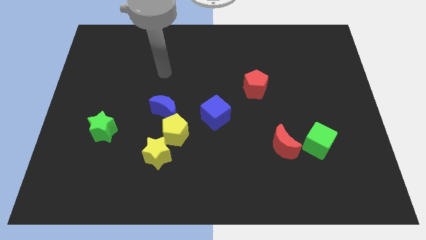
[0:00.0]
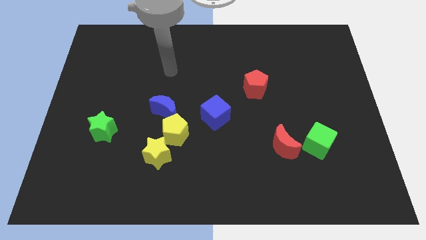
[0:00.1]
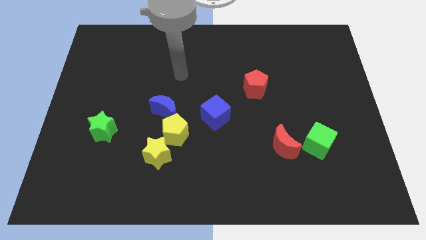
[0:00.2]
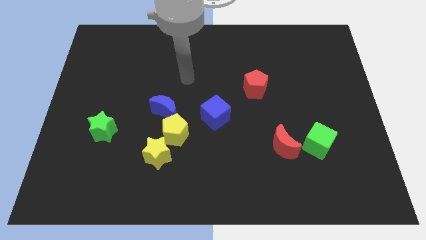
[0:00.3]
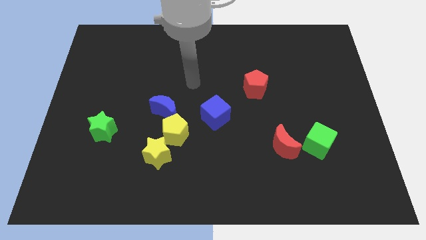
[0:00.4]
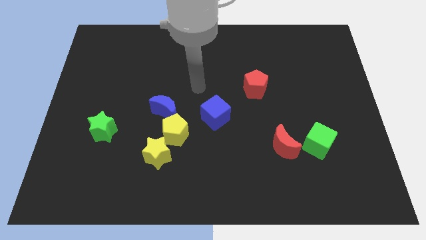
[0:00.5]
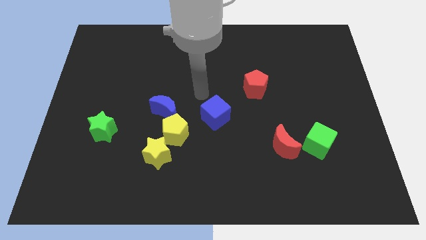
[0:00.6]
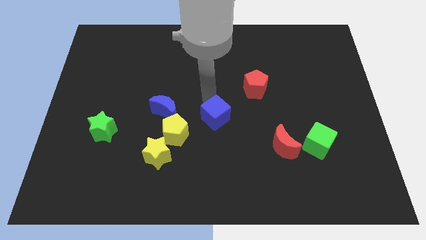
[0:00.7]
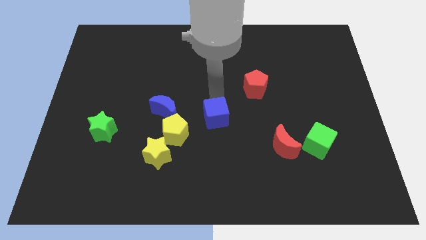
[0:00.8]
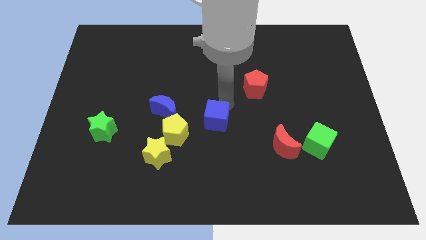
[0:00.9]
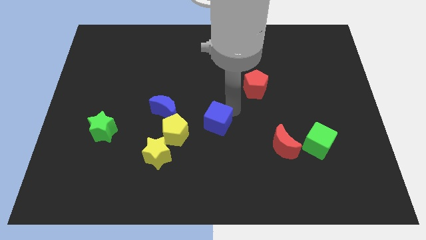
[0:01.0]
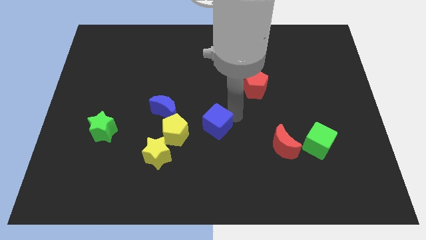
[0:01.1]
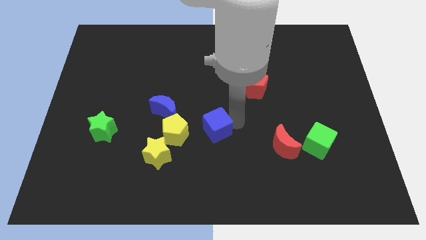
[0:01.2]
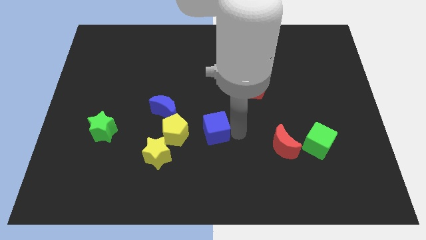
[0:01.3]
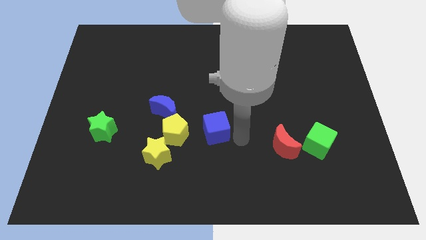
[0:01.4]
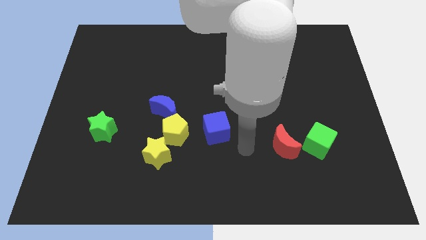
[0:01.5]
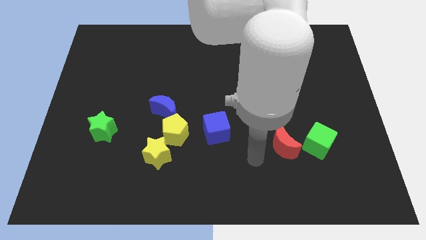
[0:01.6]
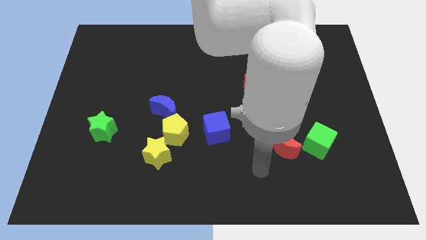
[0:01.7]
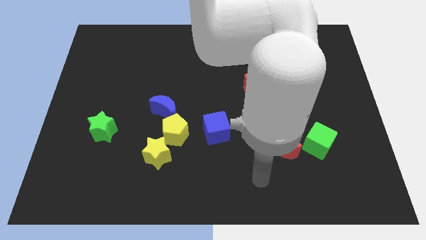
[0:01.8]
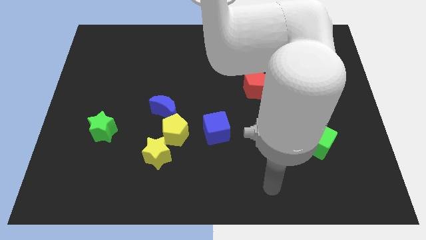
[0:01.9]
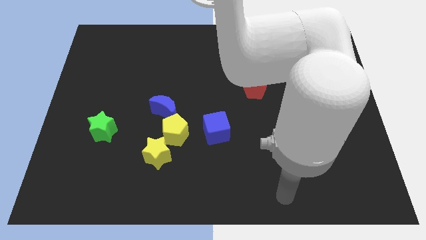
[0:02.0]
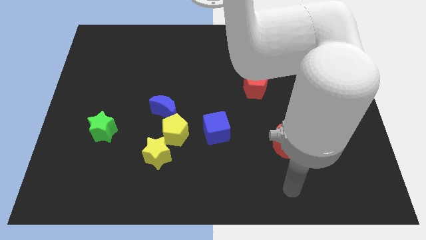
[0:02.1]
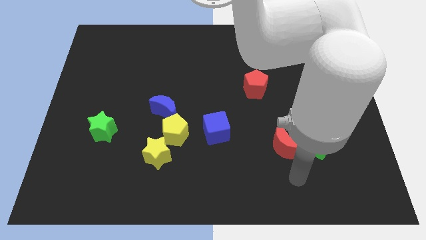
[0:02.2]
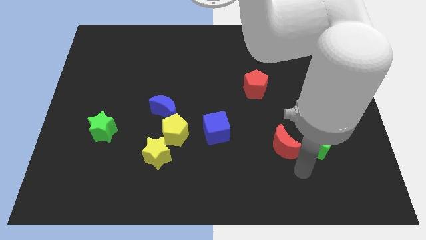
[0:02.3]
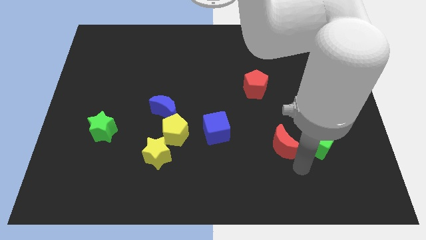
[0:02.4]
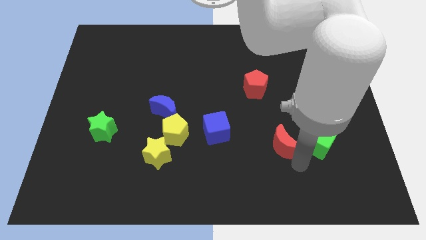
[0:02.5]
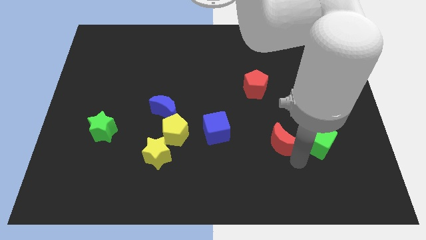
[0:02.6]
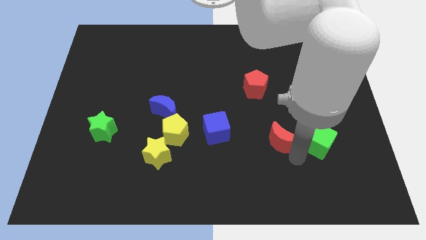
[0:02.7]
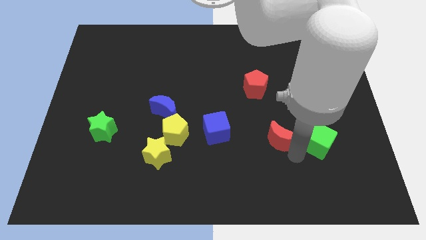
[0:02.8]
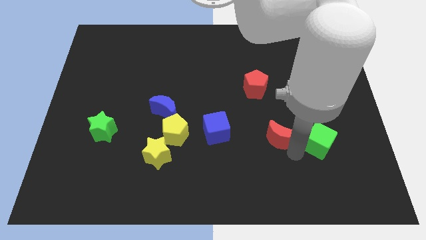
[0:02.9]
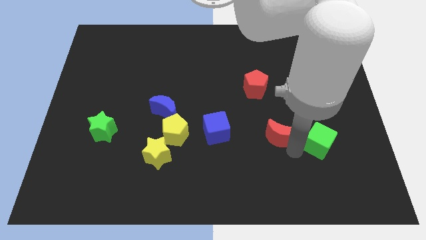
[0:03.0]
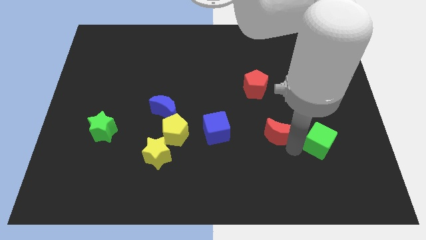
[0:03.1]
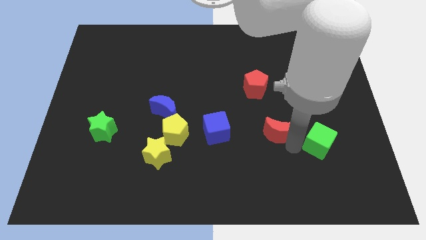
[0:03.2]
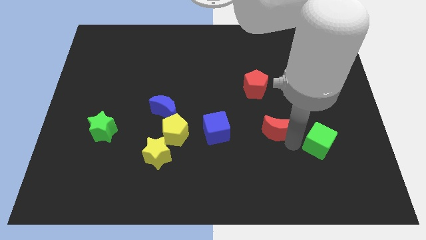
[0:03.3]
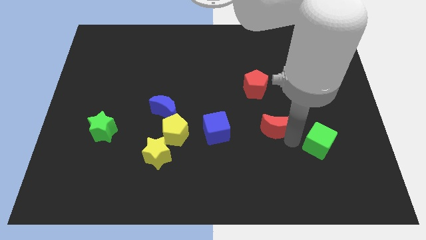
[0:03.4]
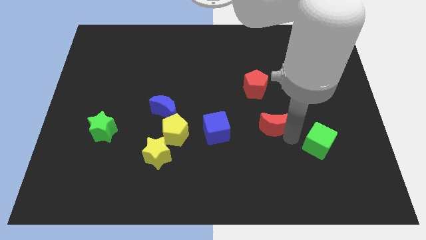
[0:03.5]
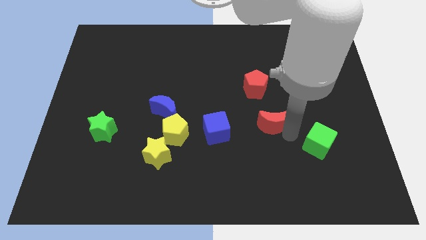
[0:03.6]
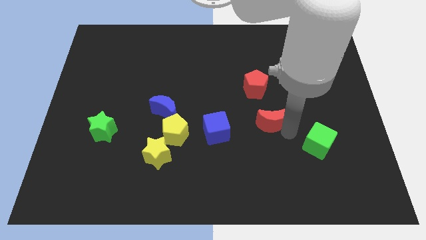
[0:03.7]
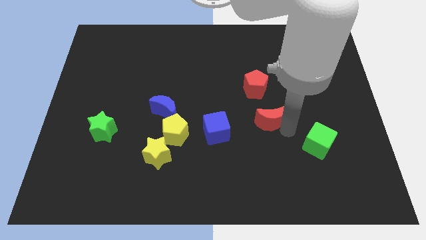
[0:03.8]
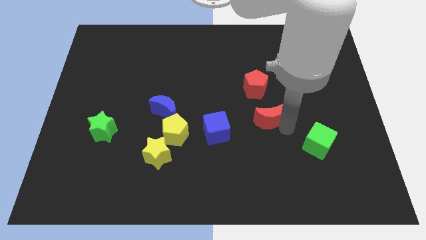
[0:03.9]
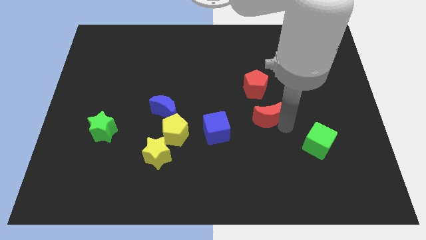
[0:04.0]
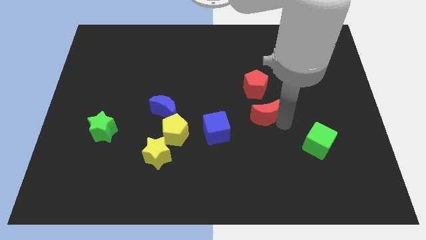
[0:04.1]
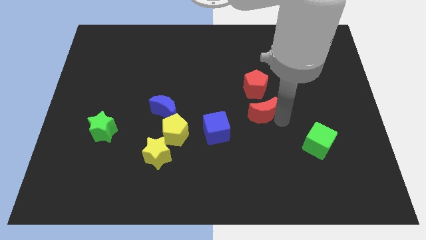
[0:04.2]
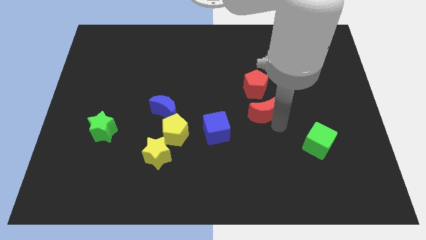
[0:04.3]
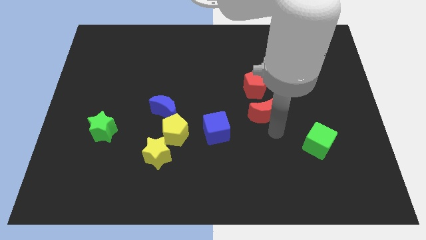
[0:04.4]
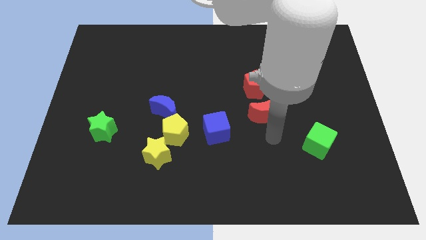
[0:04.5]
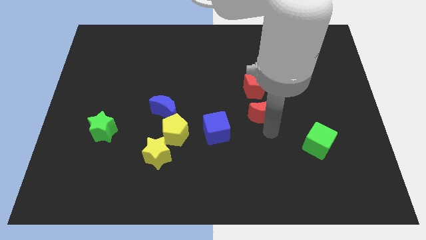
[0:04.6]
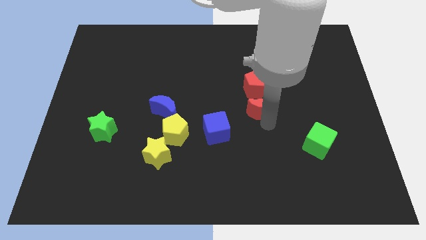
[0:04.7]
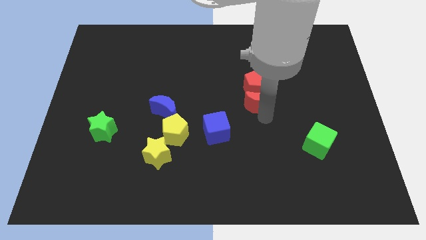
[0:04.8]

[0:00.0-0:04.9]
slide the red moon towards the red pentagon

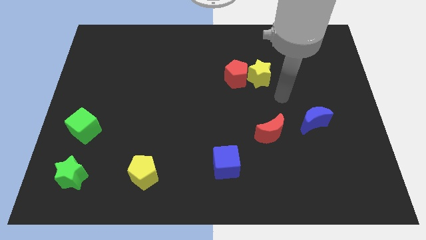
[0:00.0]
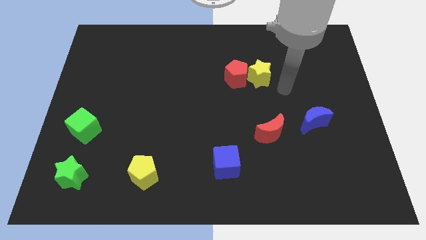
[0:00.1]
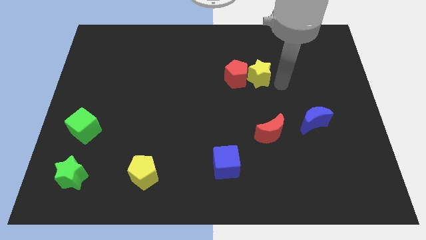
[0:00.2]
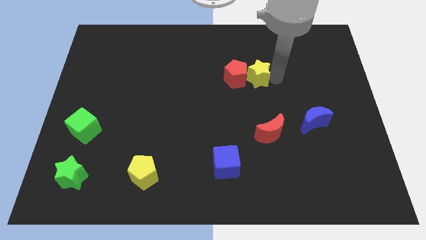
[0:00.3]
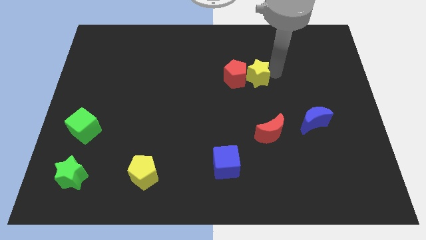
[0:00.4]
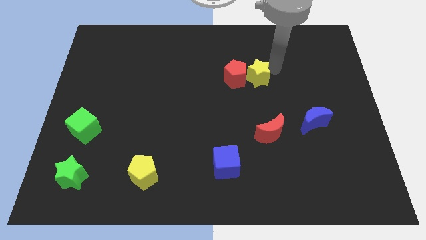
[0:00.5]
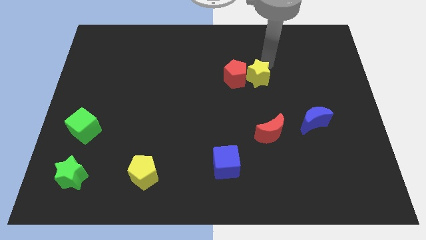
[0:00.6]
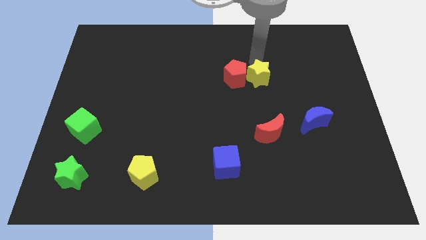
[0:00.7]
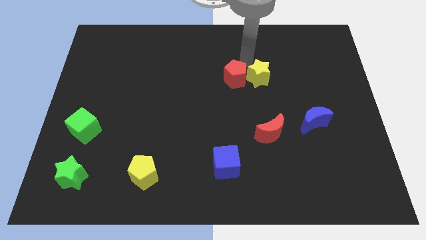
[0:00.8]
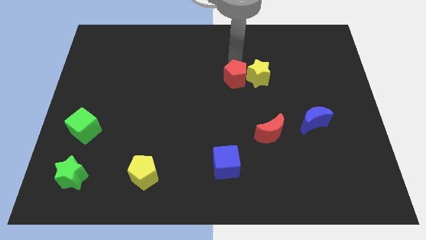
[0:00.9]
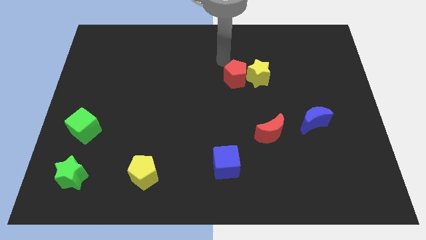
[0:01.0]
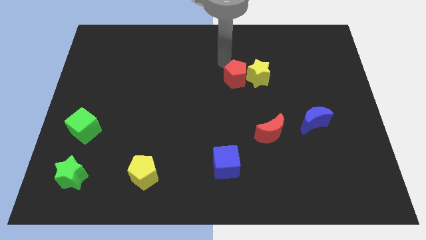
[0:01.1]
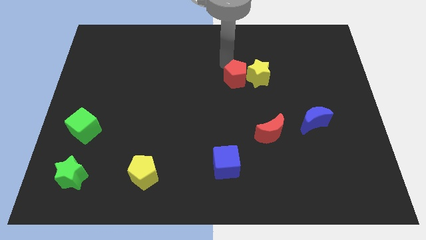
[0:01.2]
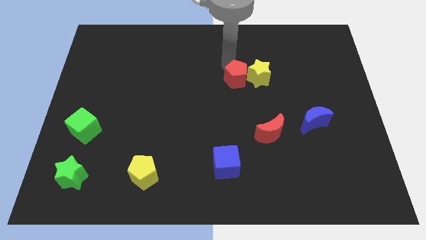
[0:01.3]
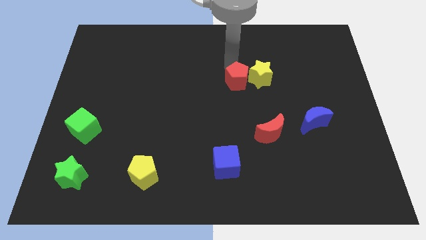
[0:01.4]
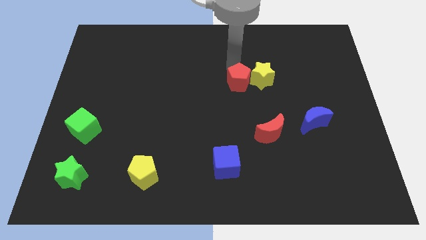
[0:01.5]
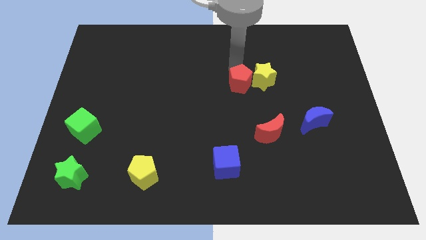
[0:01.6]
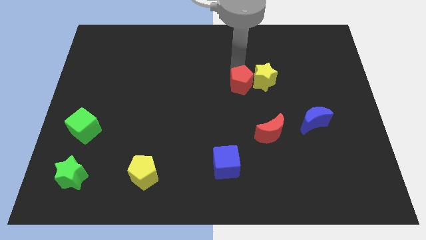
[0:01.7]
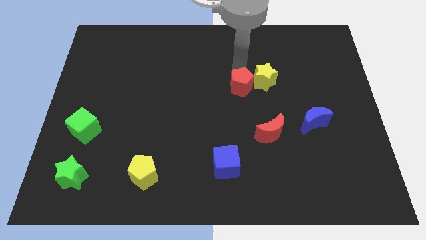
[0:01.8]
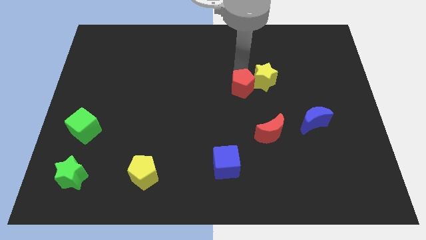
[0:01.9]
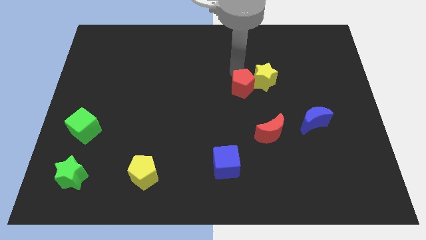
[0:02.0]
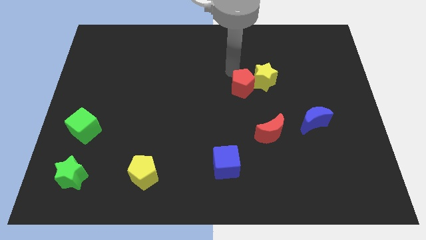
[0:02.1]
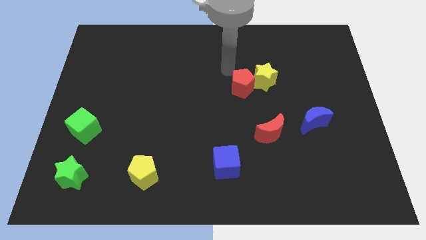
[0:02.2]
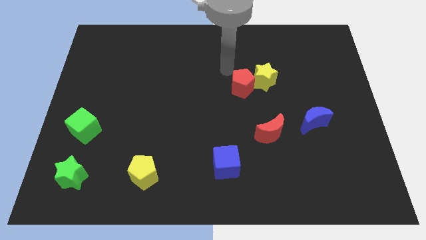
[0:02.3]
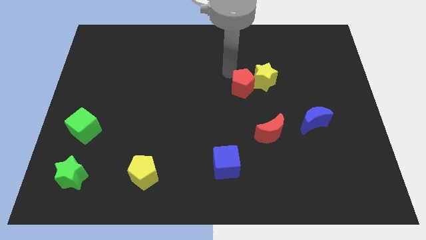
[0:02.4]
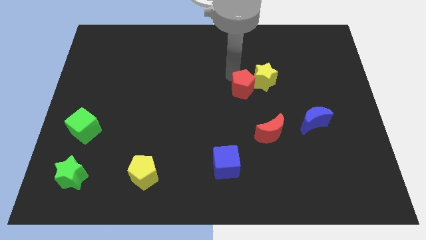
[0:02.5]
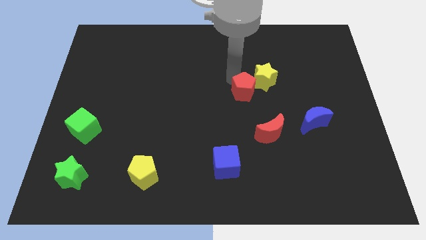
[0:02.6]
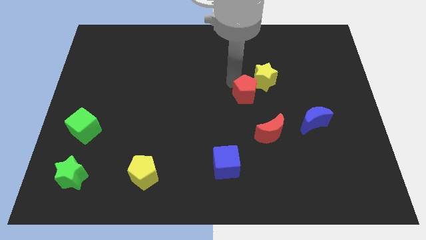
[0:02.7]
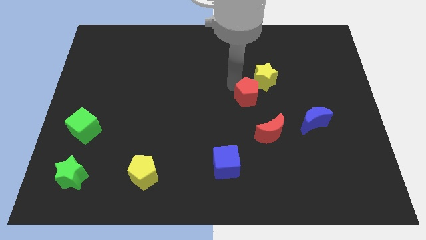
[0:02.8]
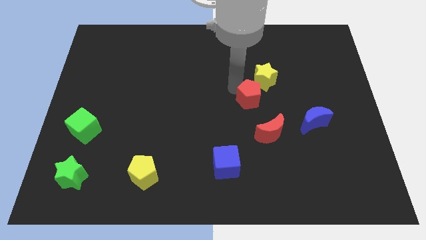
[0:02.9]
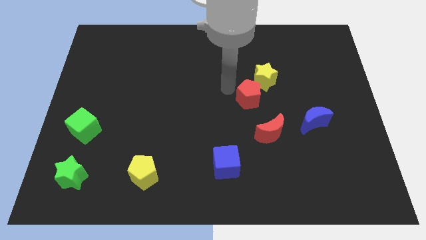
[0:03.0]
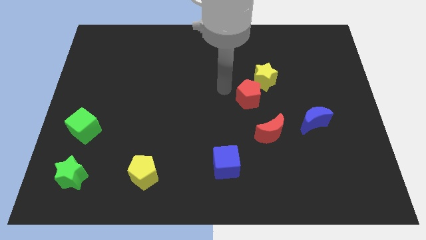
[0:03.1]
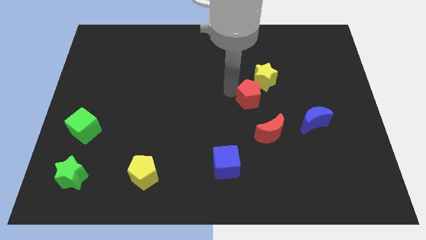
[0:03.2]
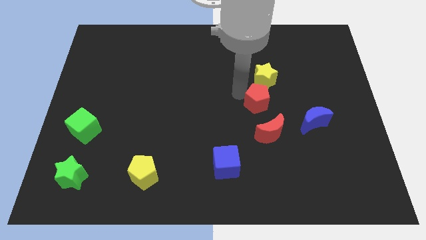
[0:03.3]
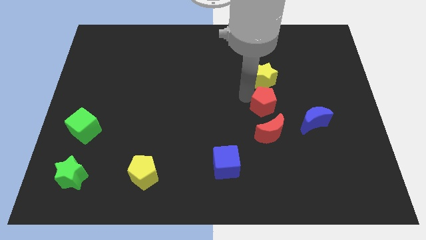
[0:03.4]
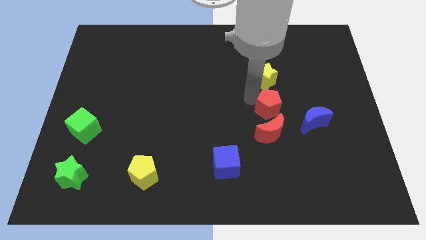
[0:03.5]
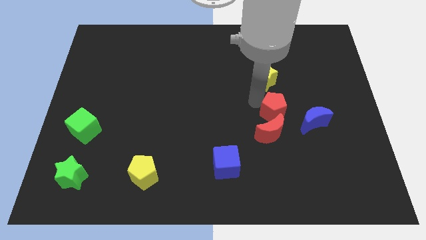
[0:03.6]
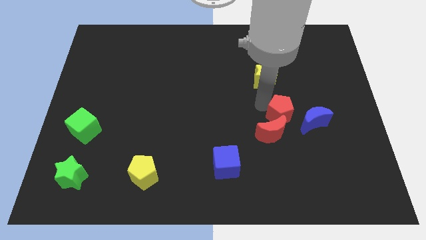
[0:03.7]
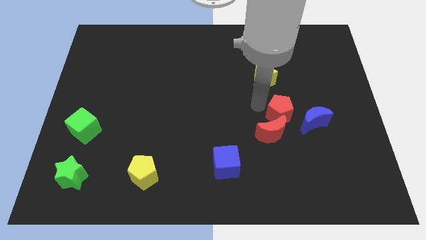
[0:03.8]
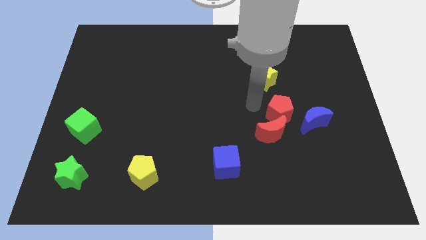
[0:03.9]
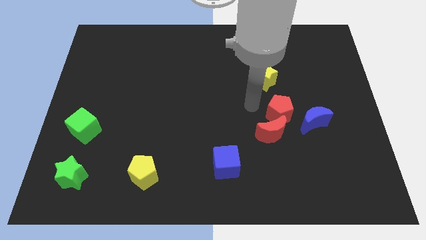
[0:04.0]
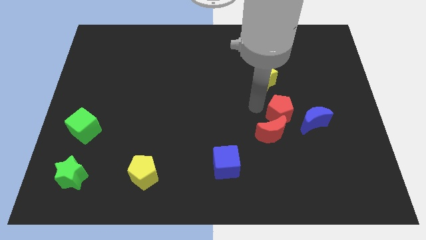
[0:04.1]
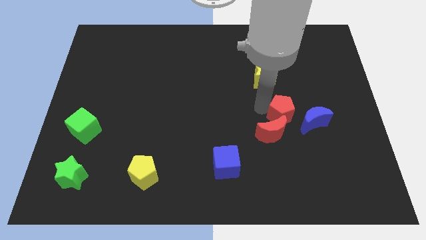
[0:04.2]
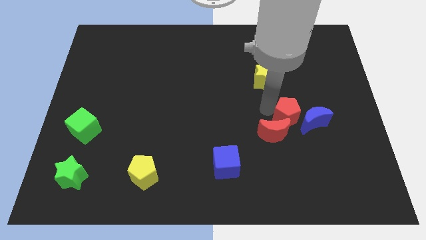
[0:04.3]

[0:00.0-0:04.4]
put the red pentagon to the blue moon
